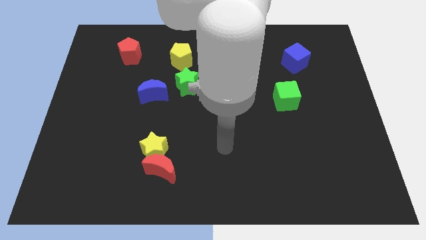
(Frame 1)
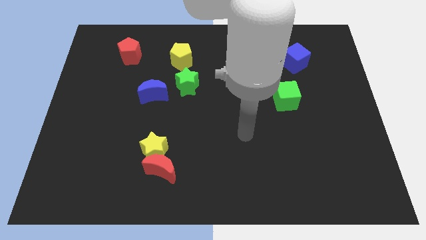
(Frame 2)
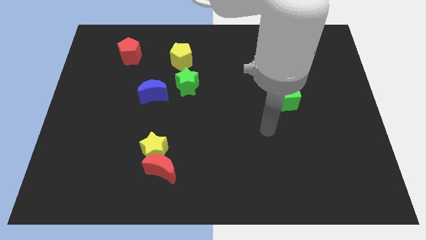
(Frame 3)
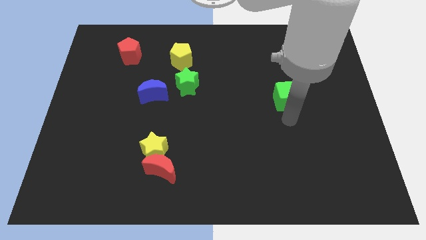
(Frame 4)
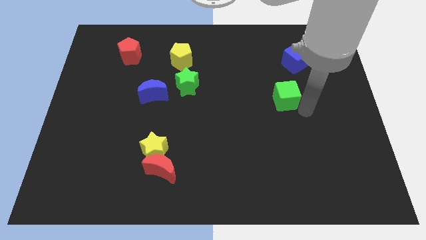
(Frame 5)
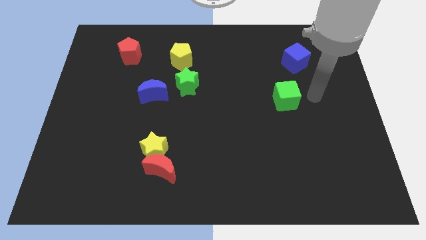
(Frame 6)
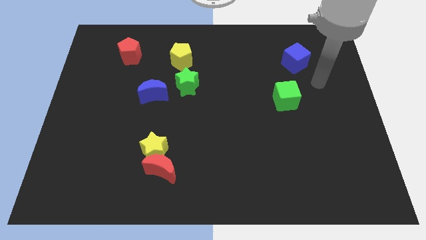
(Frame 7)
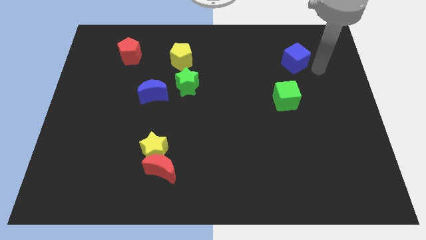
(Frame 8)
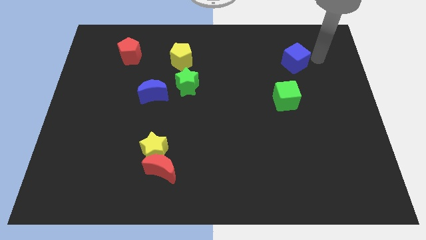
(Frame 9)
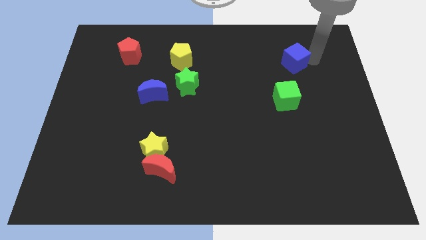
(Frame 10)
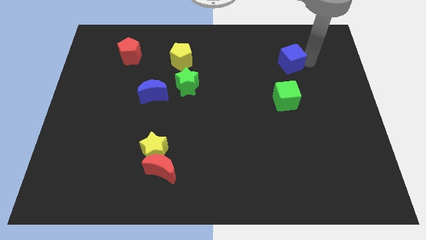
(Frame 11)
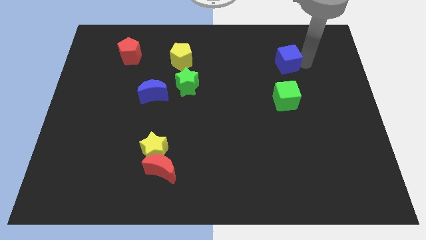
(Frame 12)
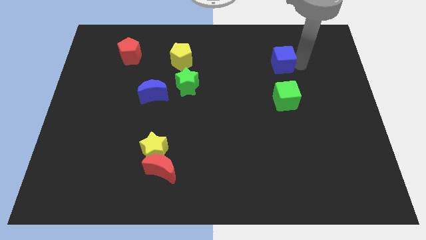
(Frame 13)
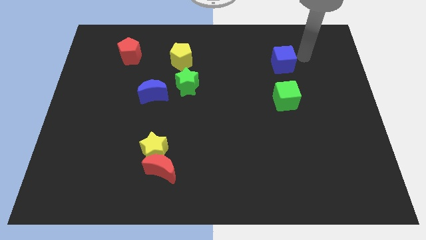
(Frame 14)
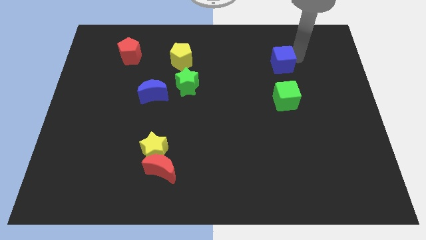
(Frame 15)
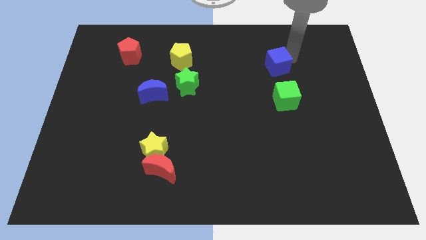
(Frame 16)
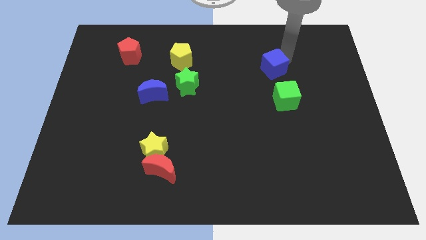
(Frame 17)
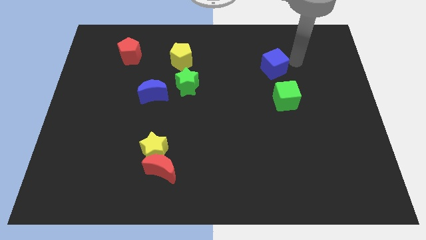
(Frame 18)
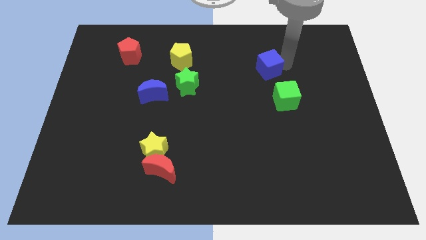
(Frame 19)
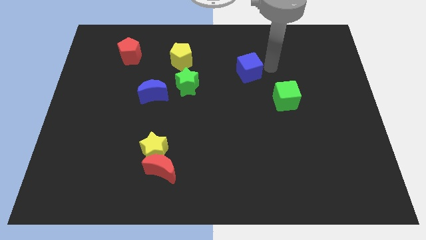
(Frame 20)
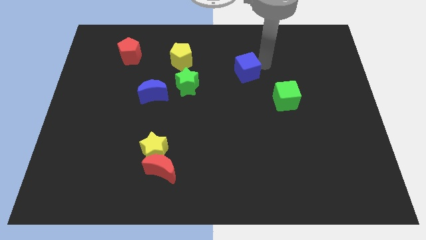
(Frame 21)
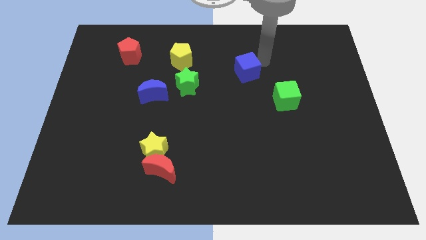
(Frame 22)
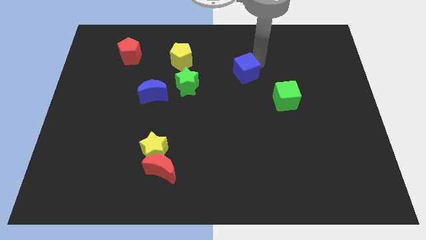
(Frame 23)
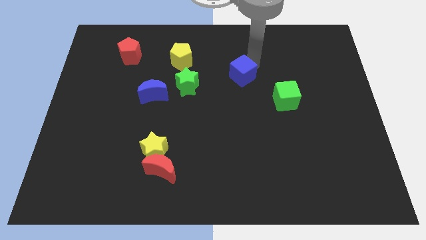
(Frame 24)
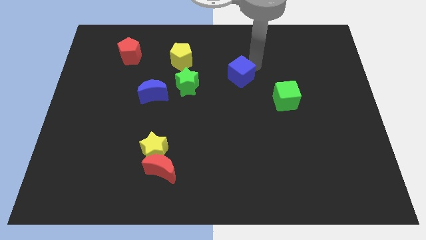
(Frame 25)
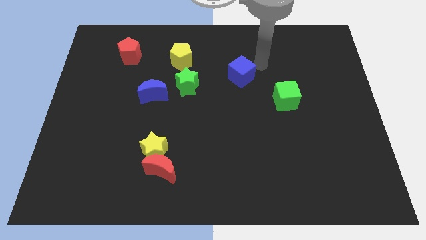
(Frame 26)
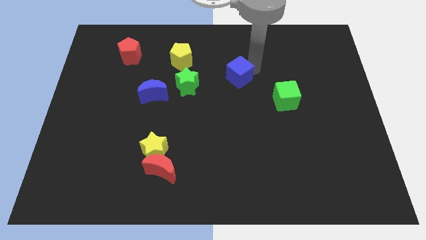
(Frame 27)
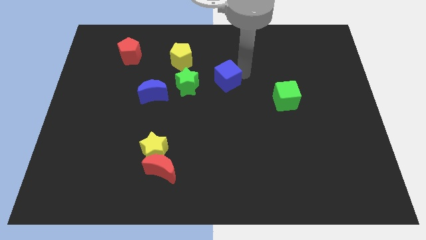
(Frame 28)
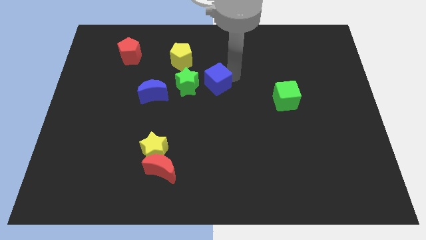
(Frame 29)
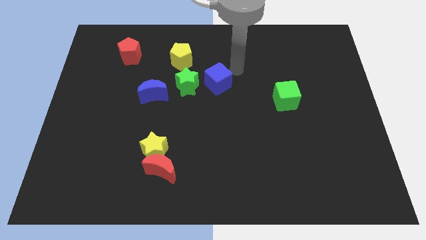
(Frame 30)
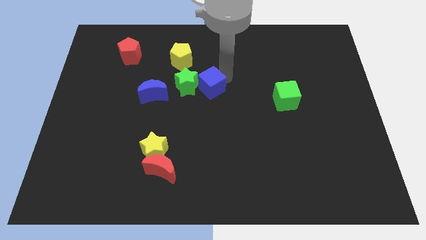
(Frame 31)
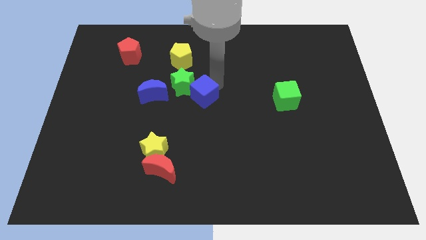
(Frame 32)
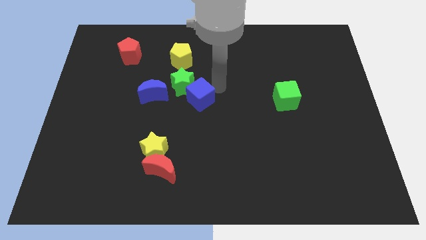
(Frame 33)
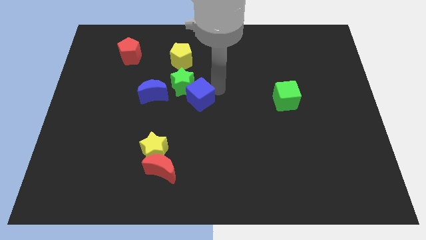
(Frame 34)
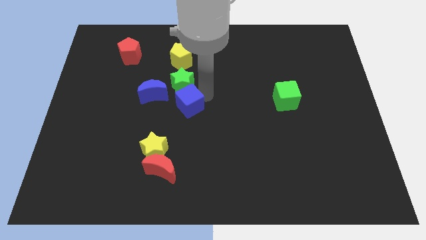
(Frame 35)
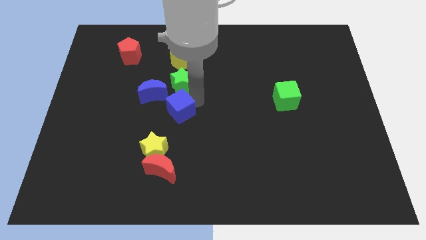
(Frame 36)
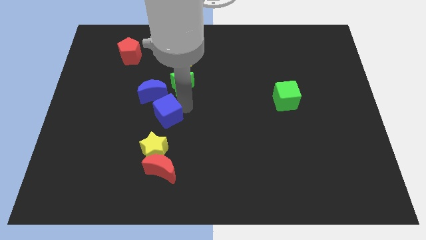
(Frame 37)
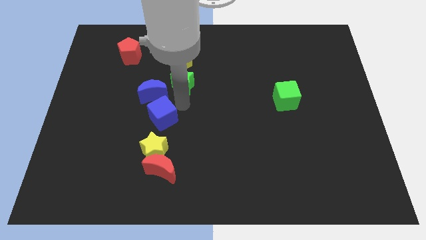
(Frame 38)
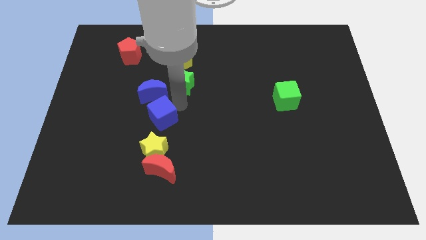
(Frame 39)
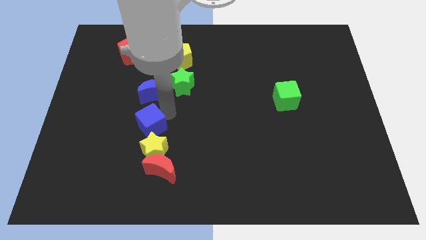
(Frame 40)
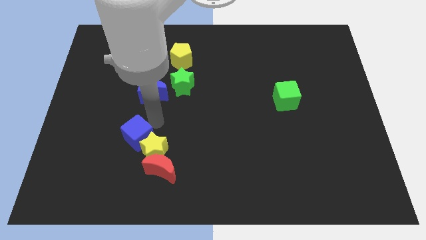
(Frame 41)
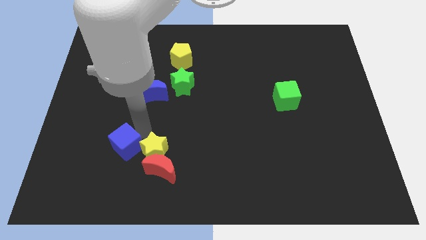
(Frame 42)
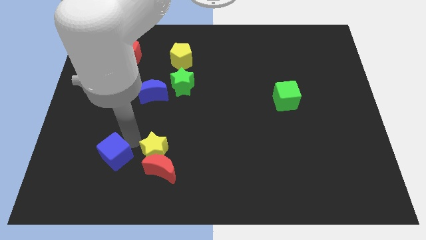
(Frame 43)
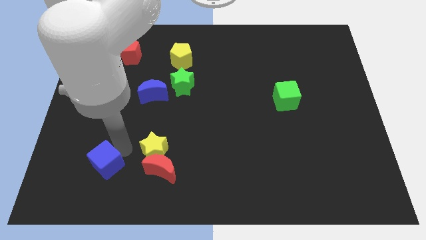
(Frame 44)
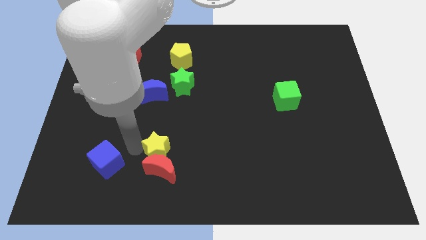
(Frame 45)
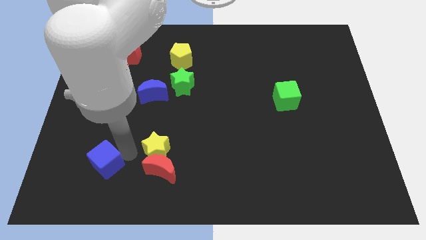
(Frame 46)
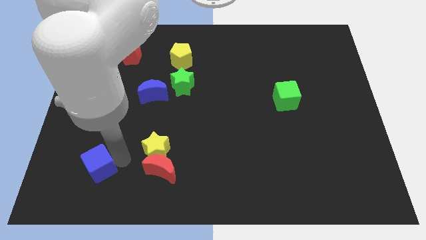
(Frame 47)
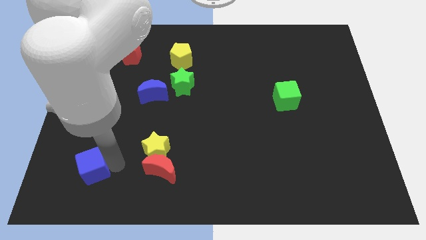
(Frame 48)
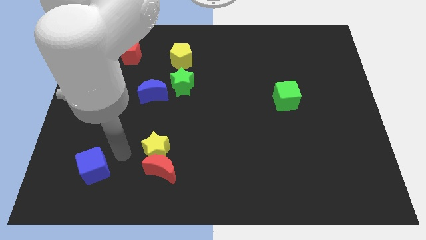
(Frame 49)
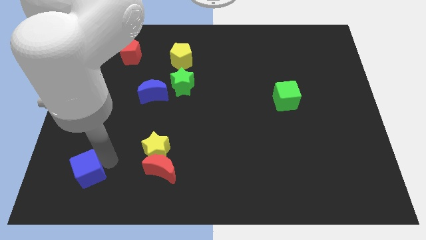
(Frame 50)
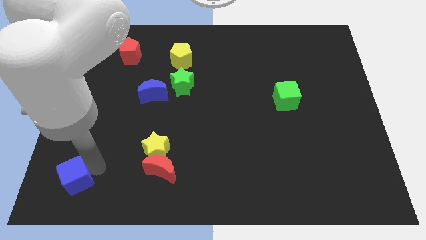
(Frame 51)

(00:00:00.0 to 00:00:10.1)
slide the blue cube to the bottom left of the board

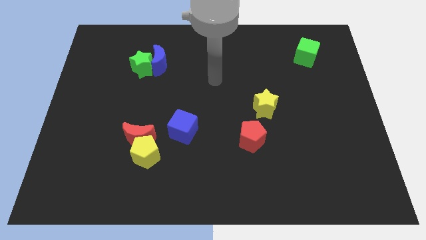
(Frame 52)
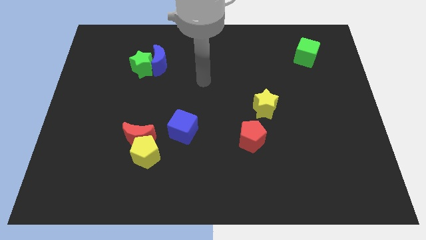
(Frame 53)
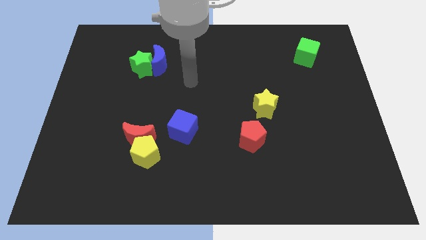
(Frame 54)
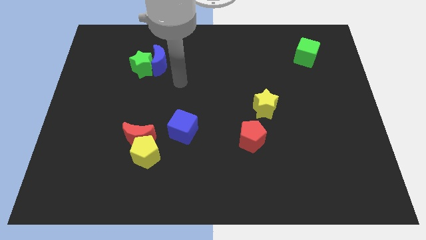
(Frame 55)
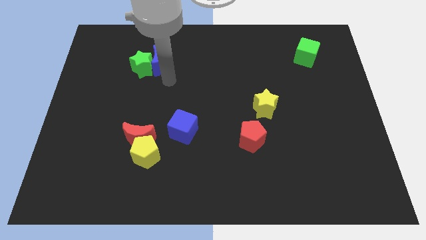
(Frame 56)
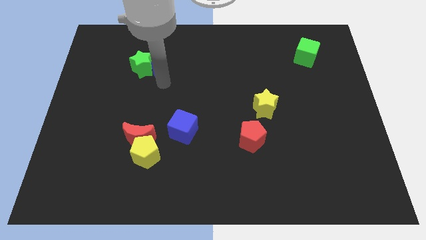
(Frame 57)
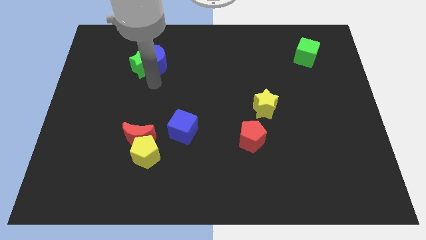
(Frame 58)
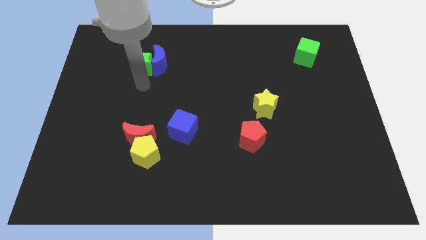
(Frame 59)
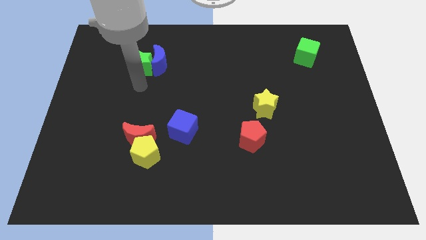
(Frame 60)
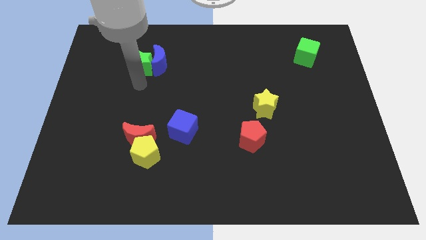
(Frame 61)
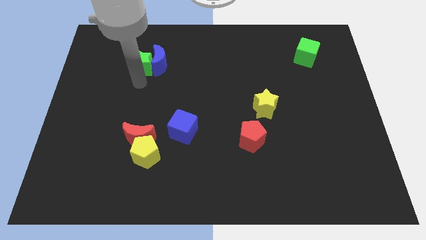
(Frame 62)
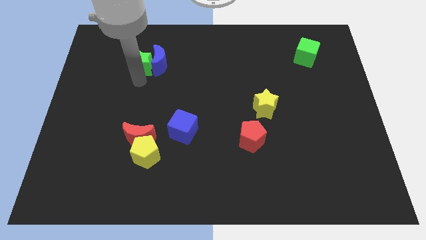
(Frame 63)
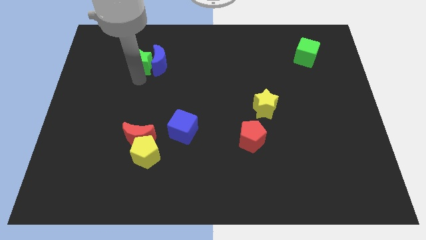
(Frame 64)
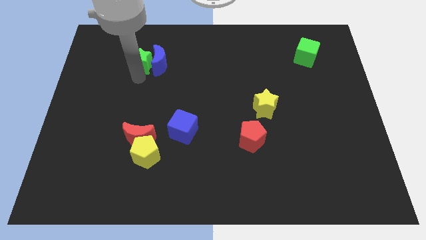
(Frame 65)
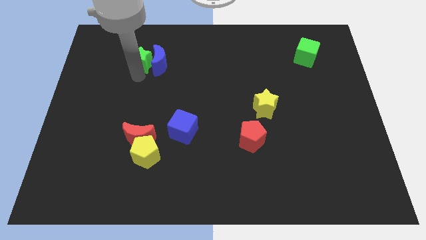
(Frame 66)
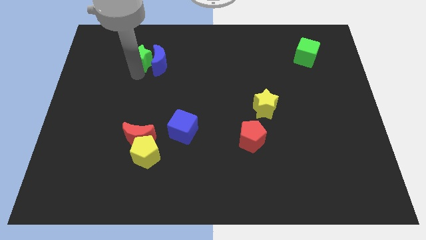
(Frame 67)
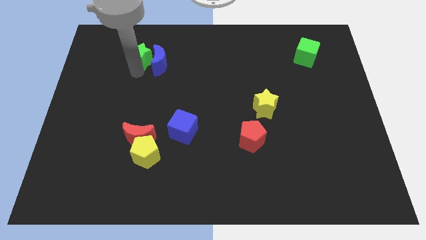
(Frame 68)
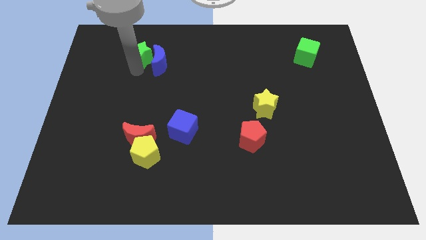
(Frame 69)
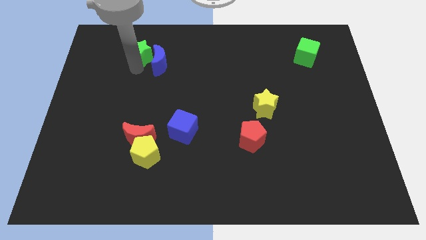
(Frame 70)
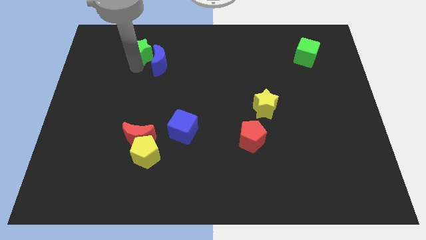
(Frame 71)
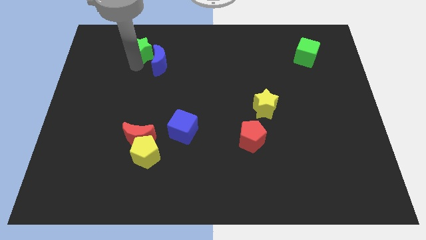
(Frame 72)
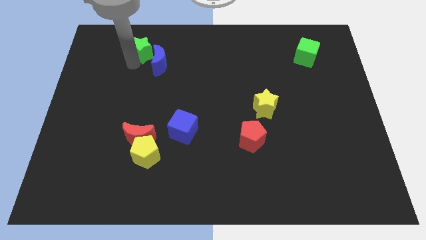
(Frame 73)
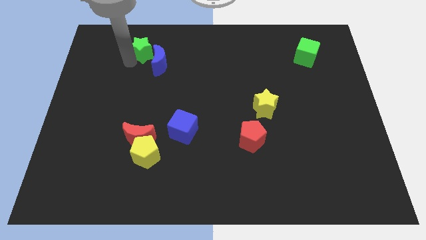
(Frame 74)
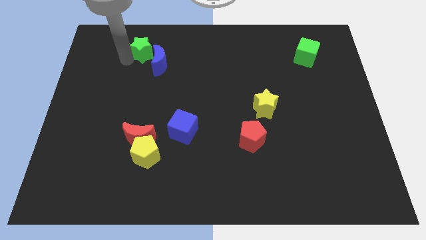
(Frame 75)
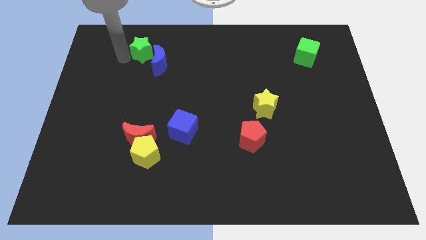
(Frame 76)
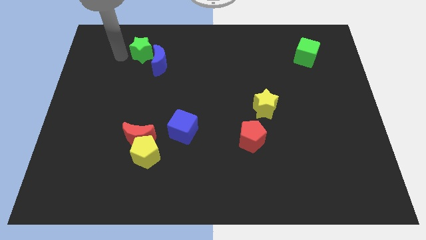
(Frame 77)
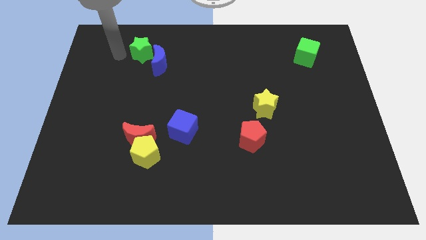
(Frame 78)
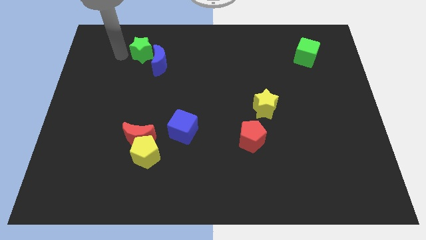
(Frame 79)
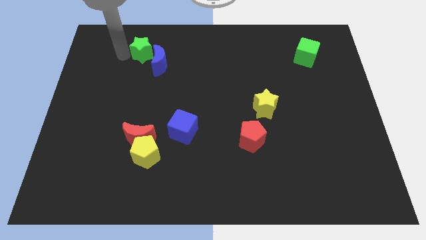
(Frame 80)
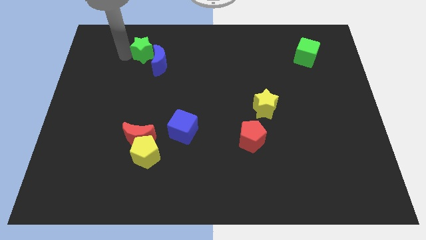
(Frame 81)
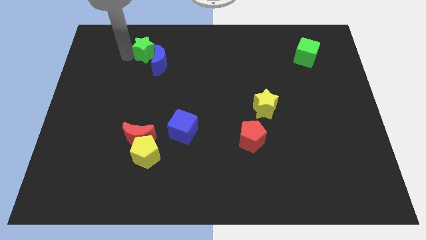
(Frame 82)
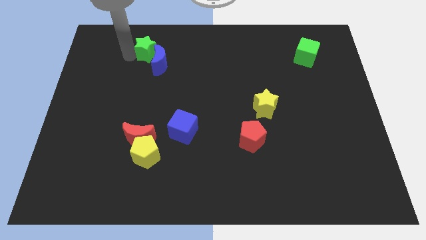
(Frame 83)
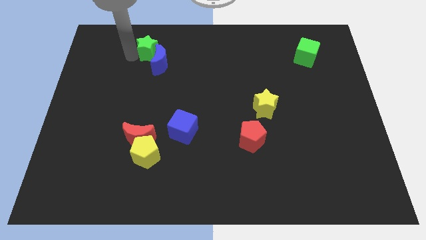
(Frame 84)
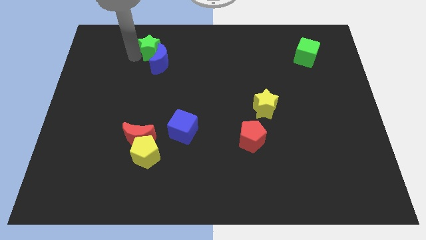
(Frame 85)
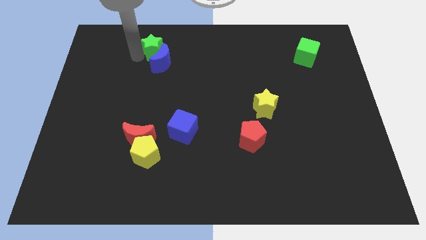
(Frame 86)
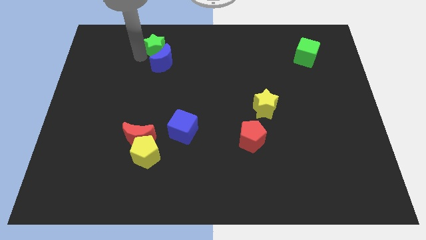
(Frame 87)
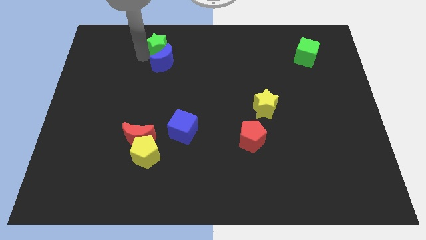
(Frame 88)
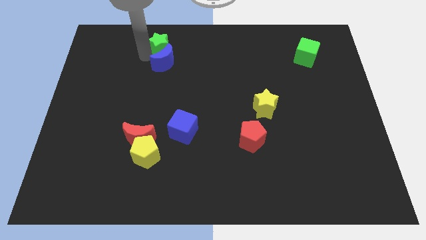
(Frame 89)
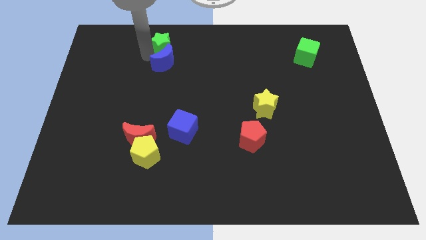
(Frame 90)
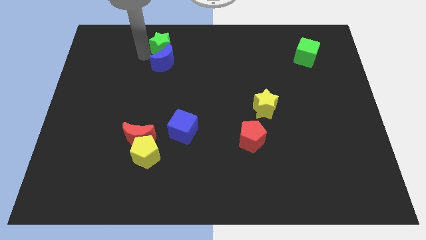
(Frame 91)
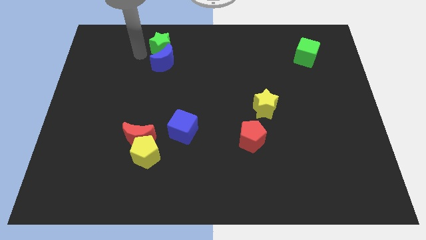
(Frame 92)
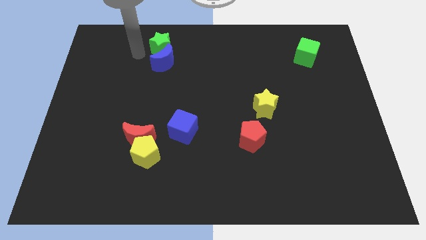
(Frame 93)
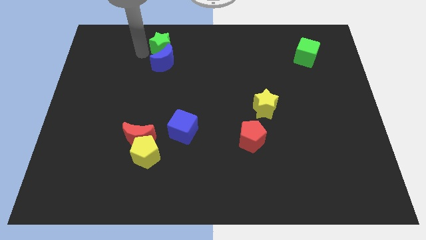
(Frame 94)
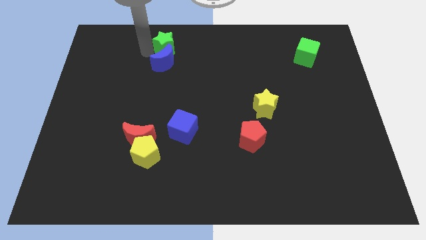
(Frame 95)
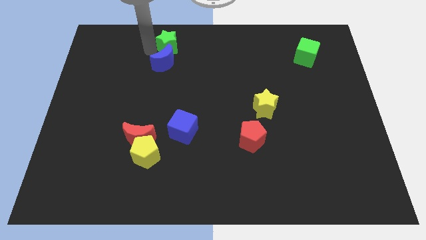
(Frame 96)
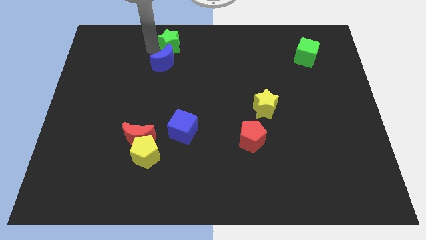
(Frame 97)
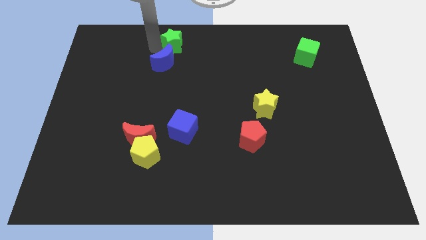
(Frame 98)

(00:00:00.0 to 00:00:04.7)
push the green star to the top side
